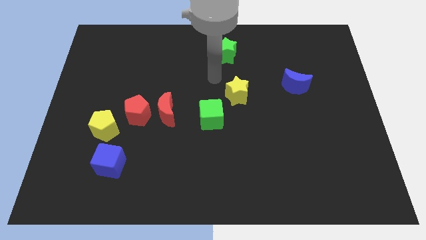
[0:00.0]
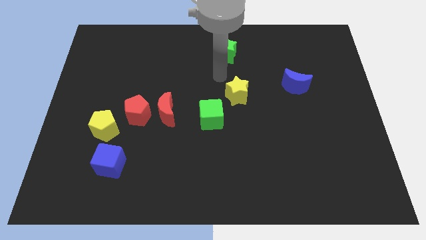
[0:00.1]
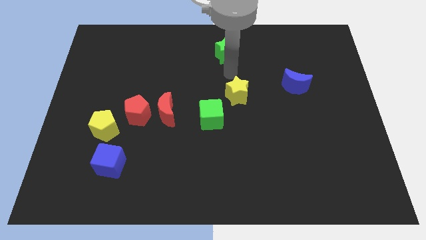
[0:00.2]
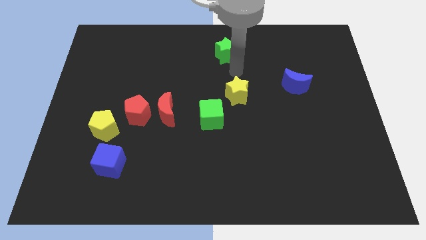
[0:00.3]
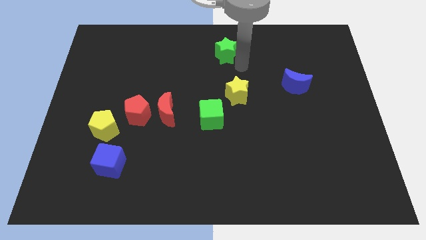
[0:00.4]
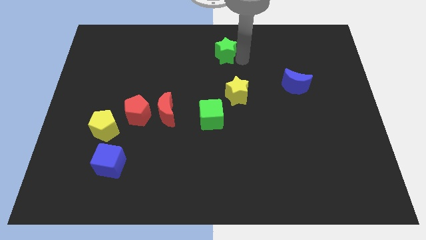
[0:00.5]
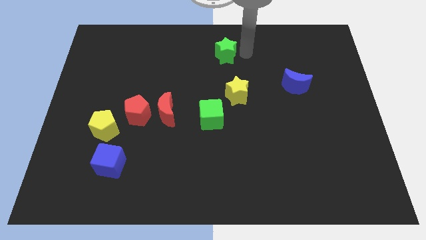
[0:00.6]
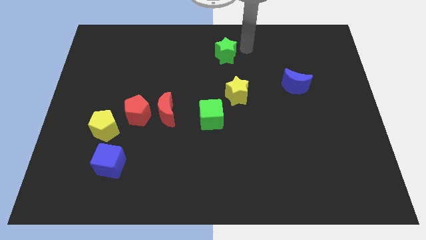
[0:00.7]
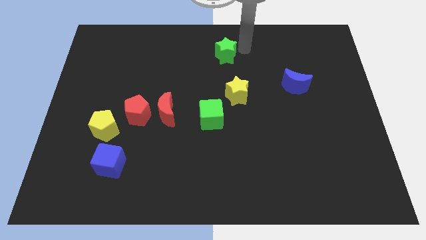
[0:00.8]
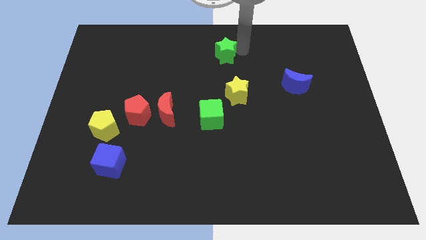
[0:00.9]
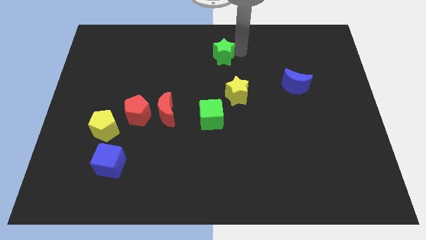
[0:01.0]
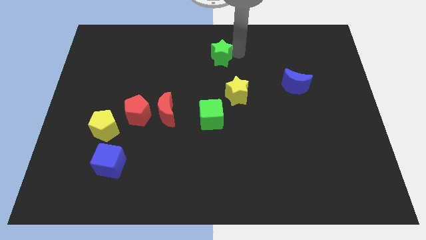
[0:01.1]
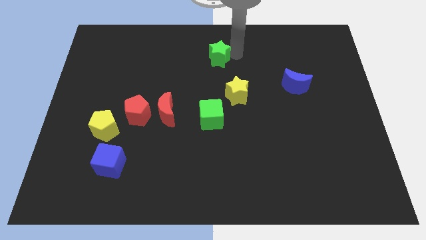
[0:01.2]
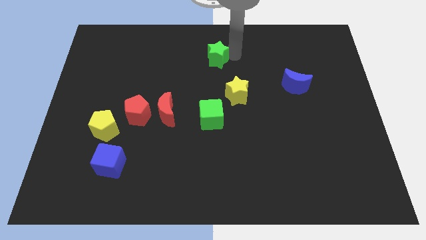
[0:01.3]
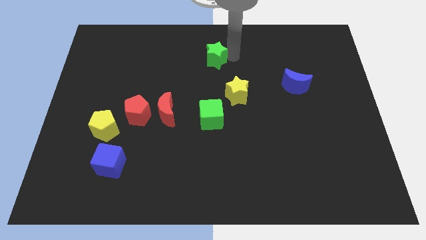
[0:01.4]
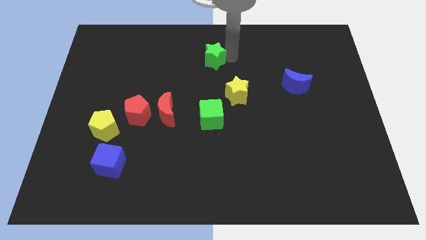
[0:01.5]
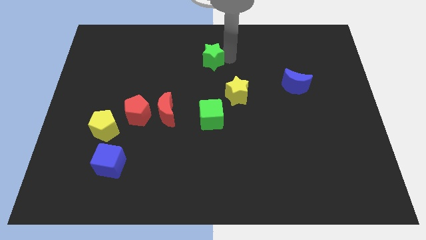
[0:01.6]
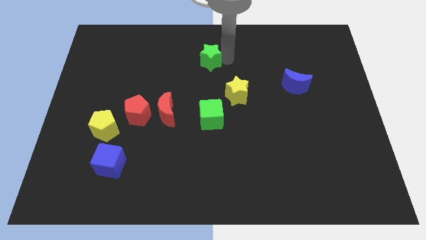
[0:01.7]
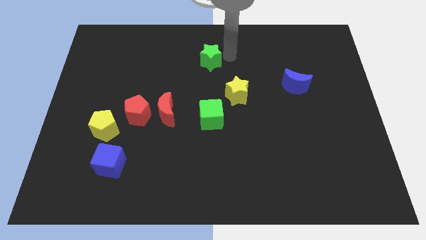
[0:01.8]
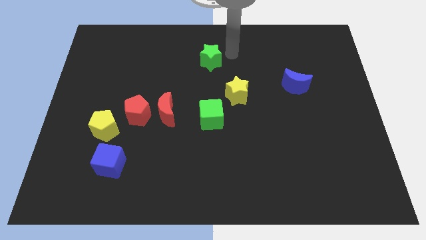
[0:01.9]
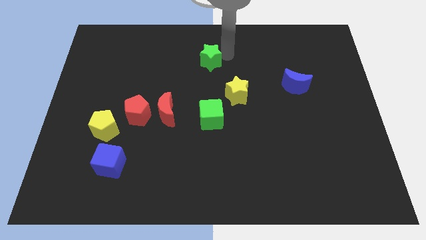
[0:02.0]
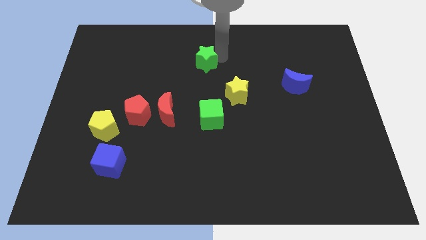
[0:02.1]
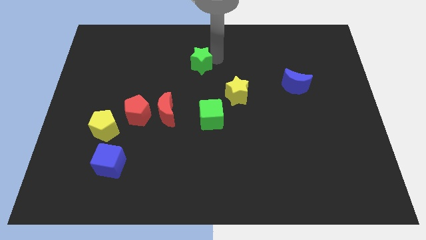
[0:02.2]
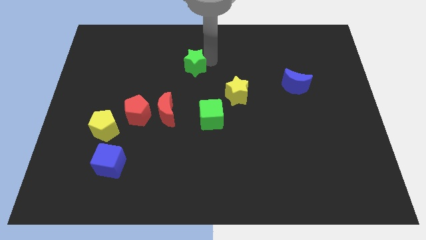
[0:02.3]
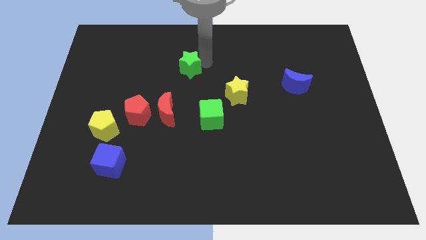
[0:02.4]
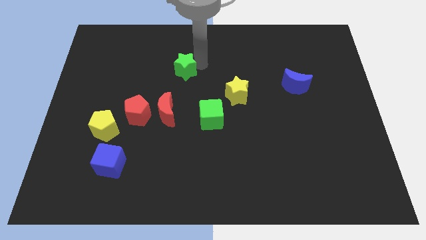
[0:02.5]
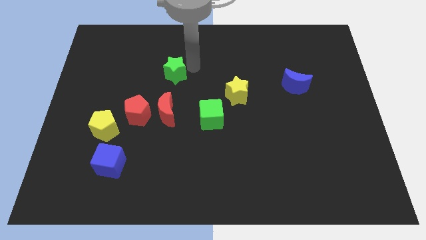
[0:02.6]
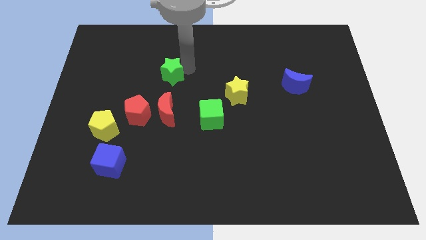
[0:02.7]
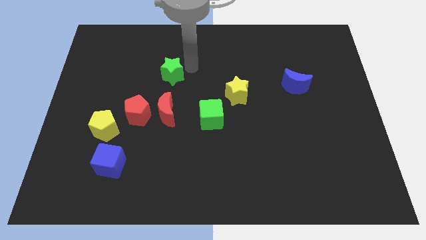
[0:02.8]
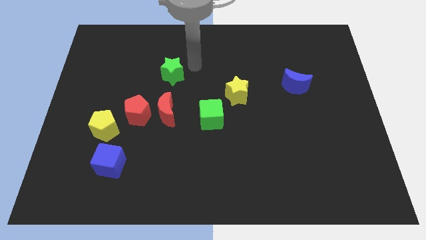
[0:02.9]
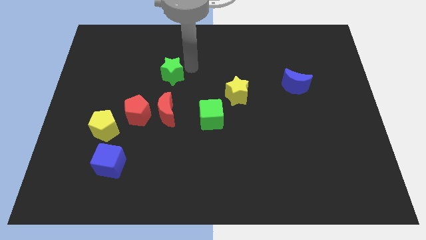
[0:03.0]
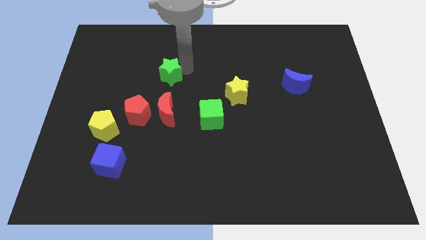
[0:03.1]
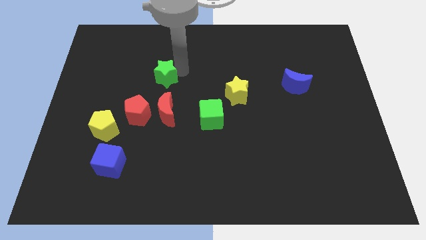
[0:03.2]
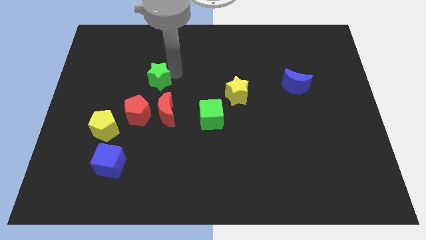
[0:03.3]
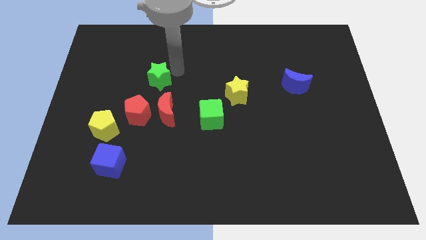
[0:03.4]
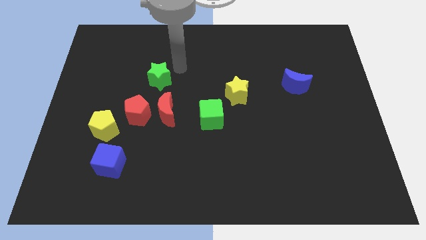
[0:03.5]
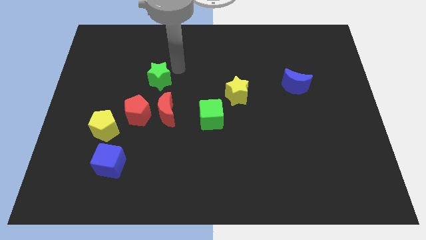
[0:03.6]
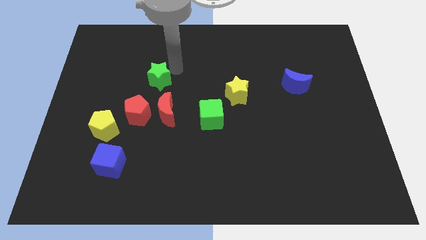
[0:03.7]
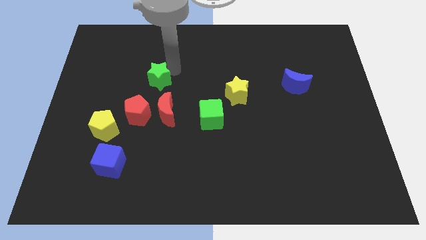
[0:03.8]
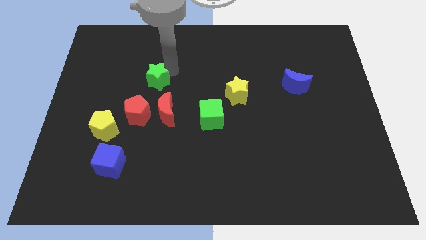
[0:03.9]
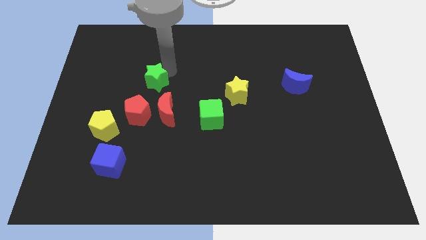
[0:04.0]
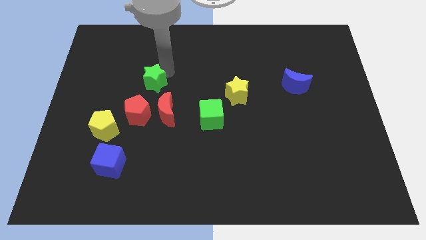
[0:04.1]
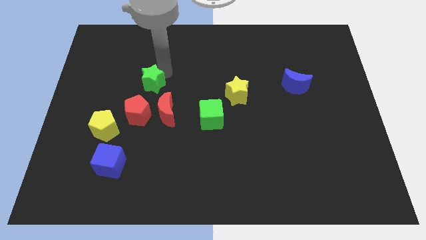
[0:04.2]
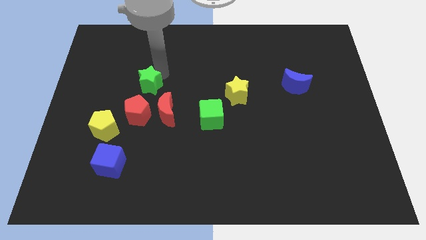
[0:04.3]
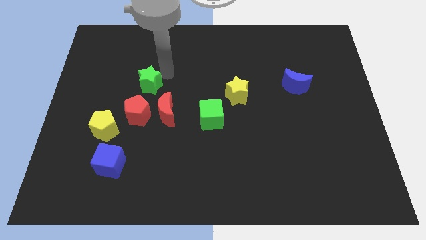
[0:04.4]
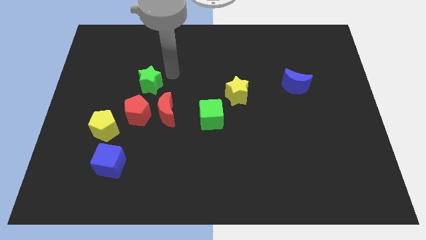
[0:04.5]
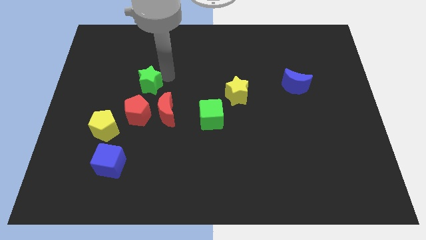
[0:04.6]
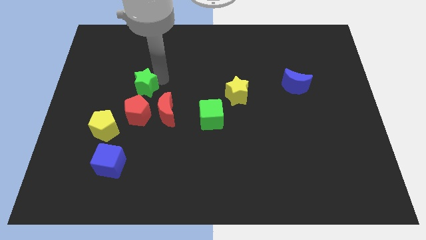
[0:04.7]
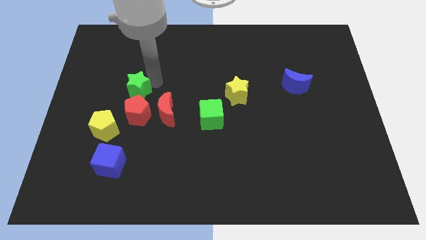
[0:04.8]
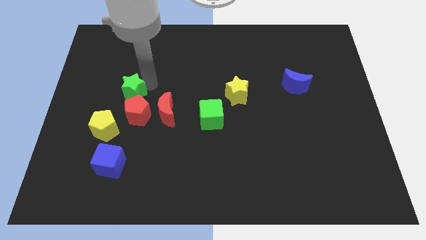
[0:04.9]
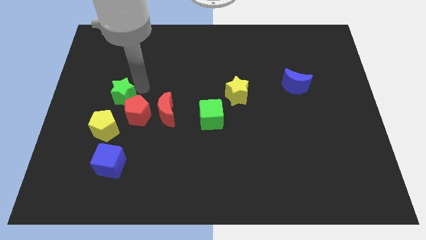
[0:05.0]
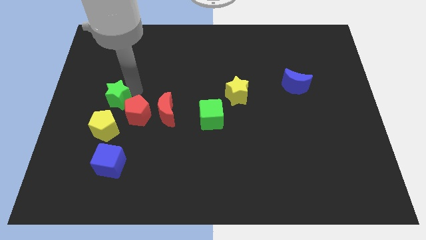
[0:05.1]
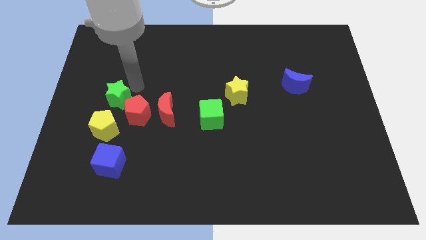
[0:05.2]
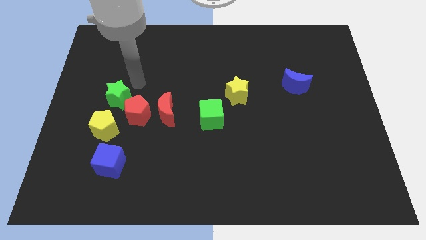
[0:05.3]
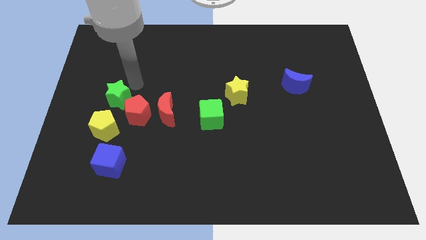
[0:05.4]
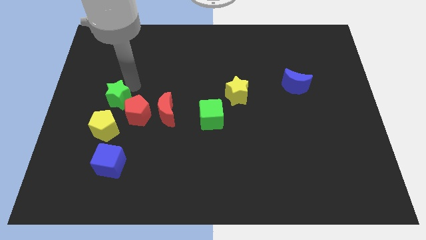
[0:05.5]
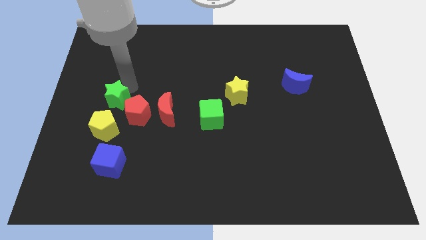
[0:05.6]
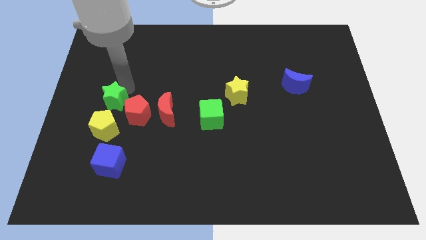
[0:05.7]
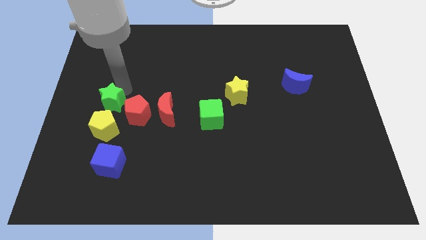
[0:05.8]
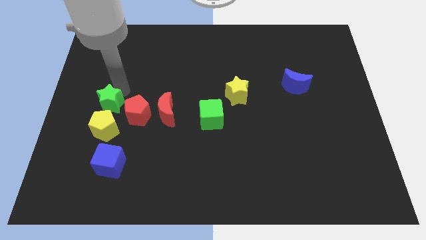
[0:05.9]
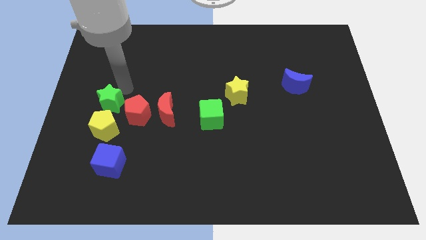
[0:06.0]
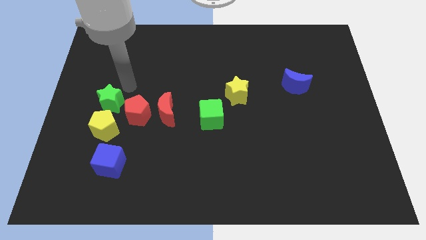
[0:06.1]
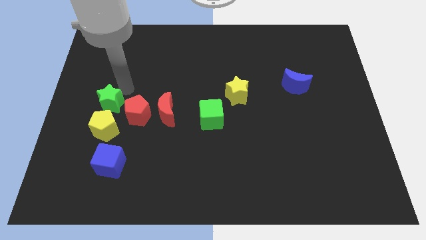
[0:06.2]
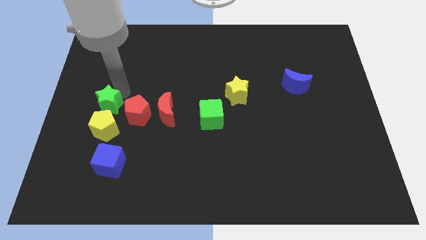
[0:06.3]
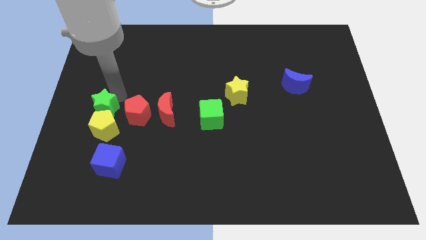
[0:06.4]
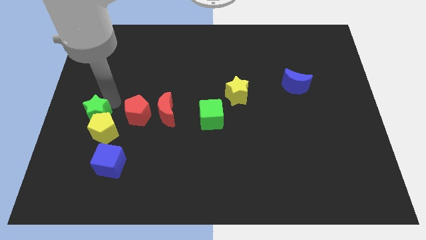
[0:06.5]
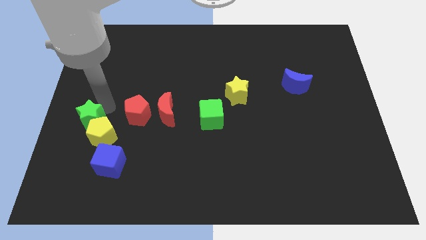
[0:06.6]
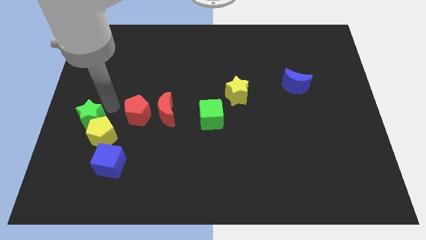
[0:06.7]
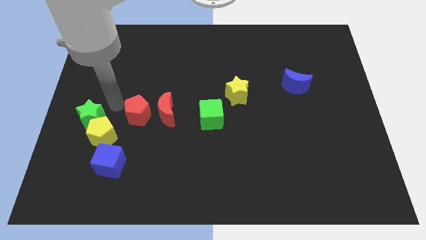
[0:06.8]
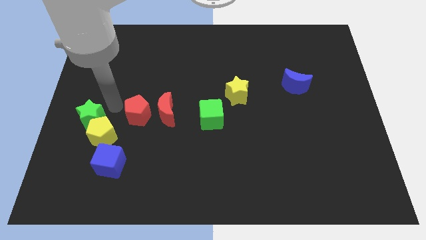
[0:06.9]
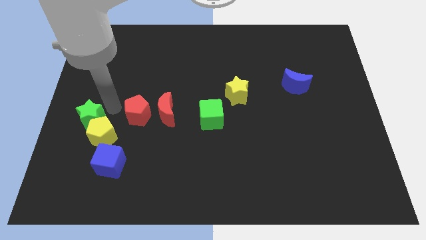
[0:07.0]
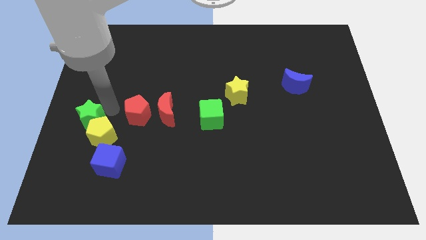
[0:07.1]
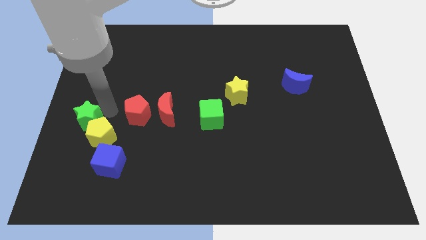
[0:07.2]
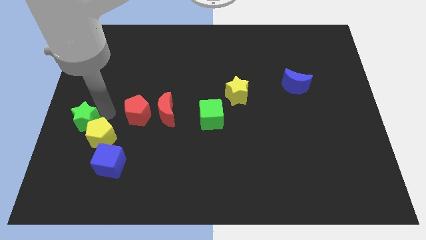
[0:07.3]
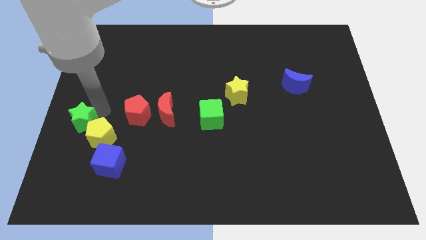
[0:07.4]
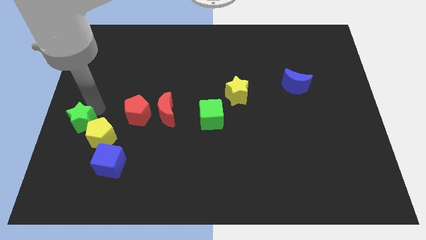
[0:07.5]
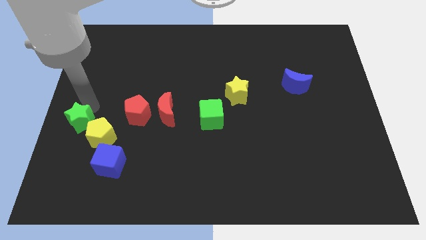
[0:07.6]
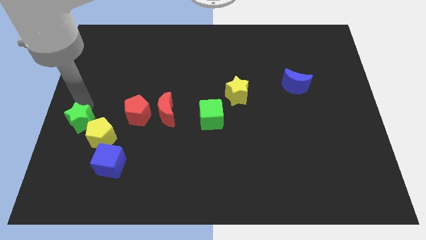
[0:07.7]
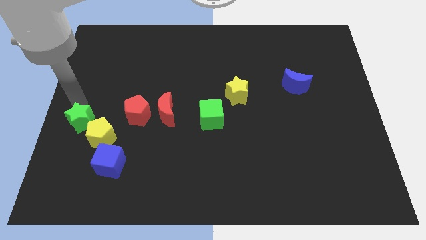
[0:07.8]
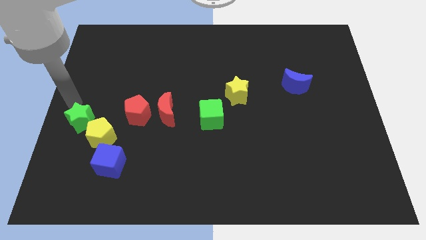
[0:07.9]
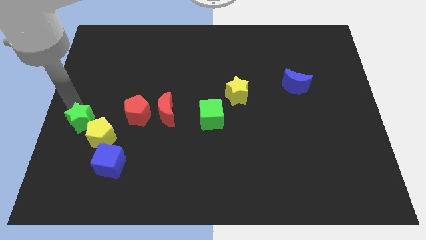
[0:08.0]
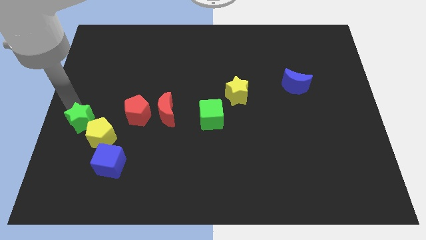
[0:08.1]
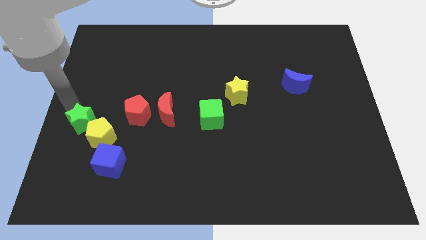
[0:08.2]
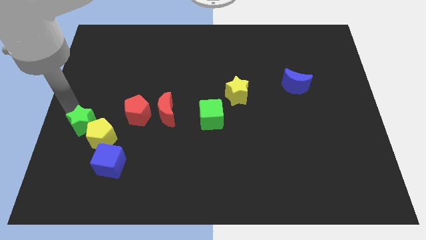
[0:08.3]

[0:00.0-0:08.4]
put the green star to the top left side of the blue cube
